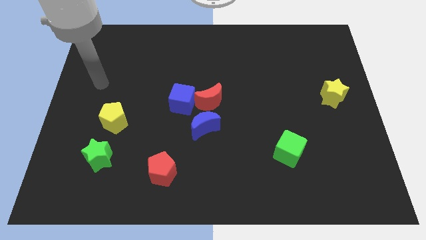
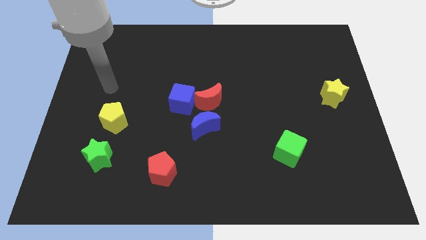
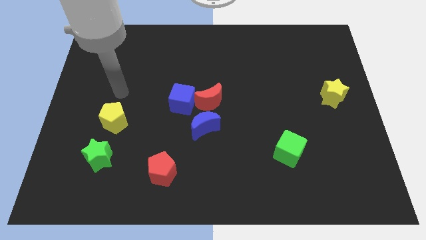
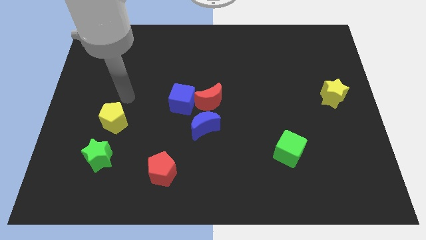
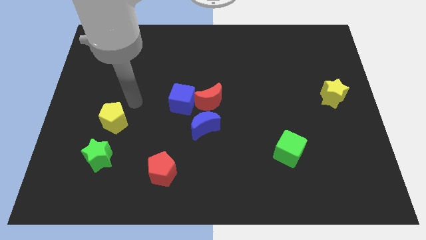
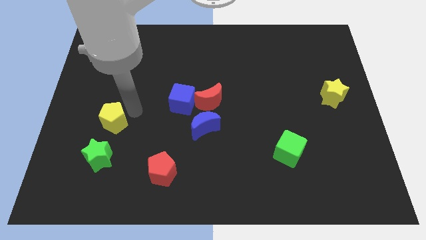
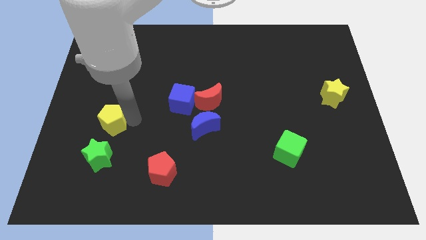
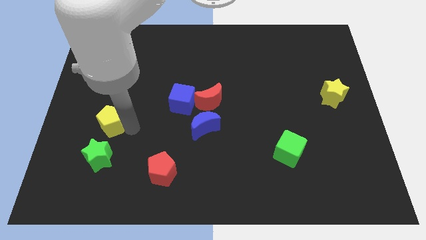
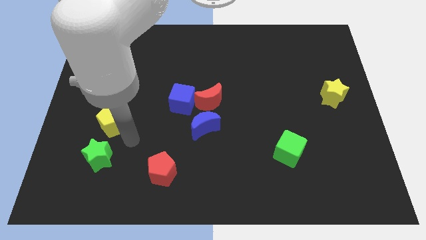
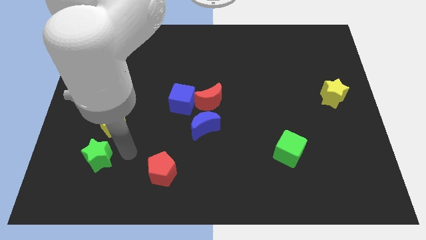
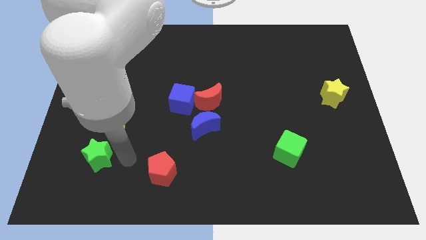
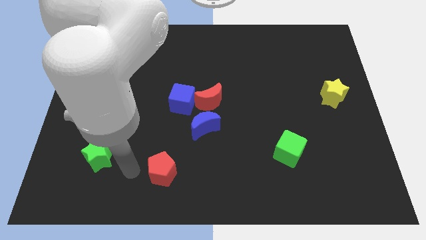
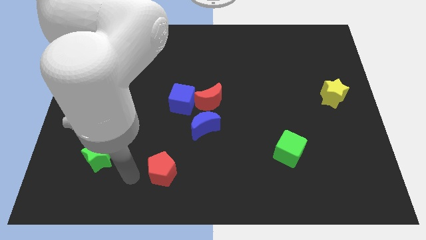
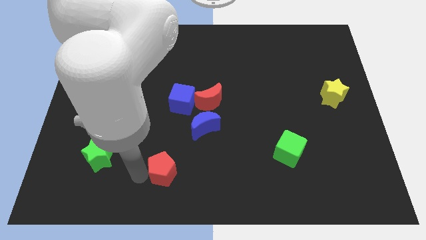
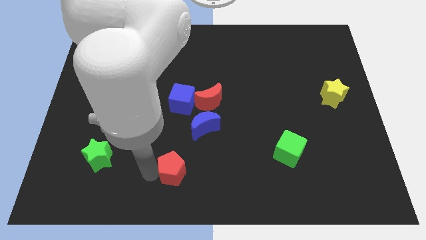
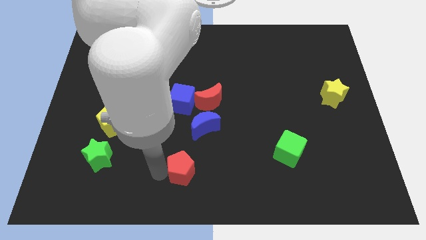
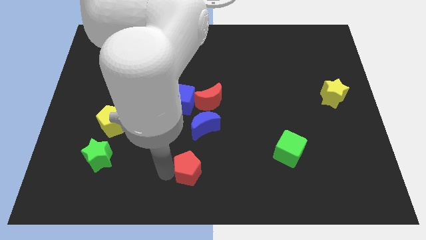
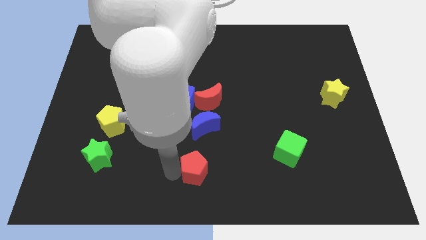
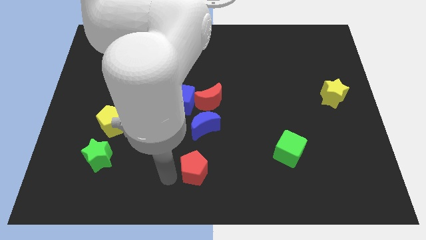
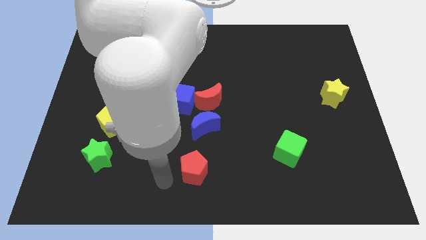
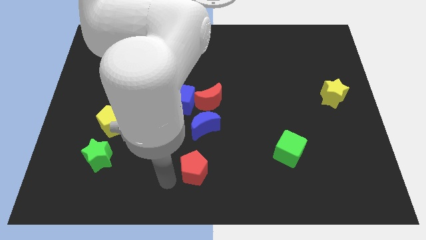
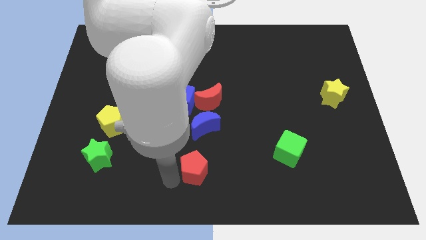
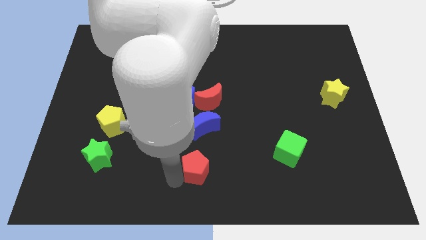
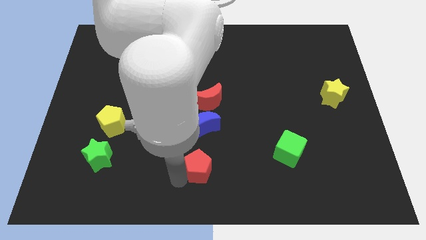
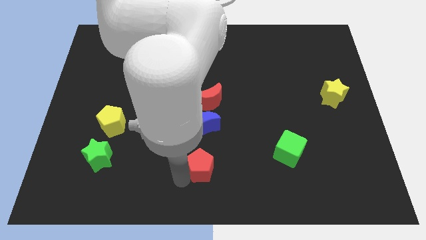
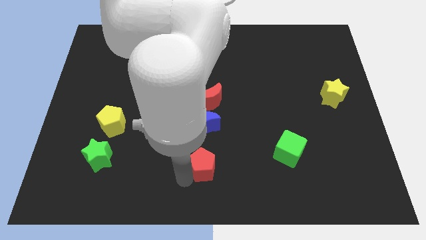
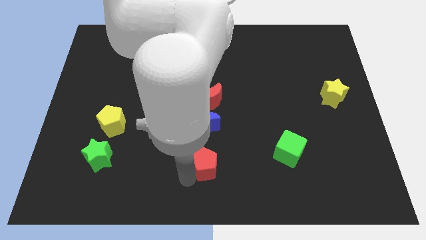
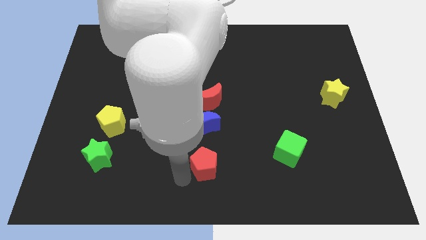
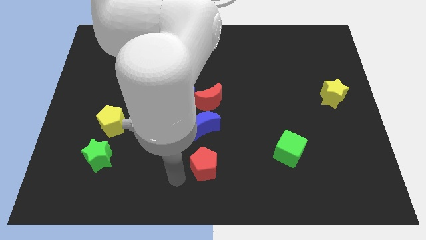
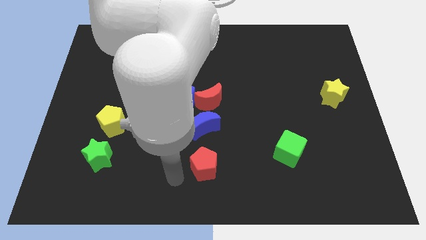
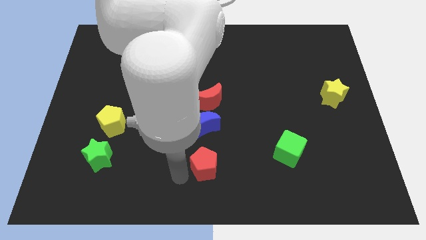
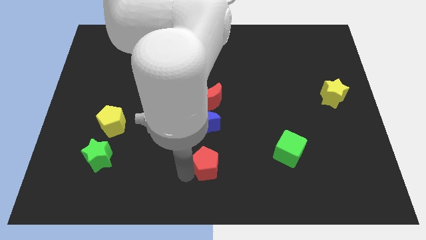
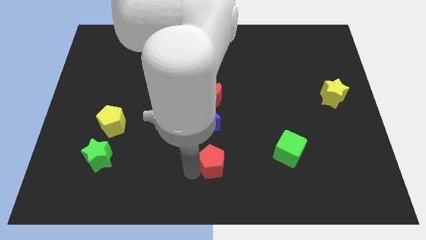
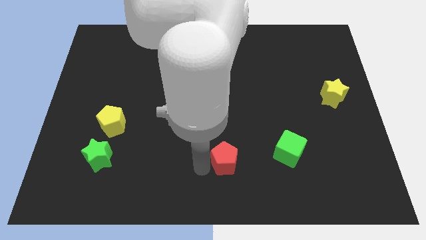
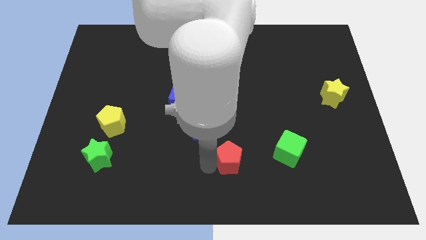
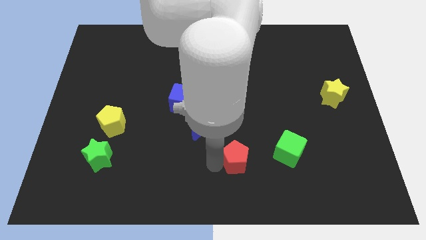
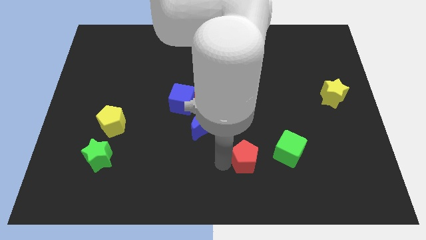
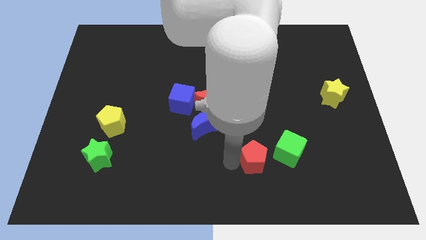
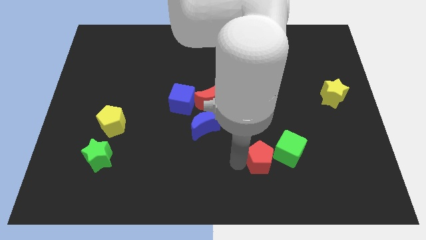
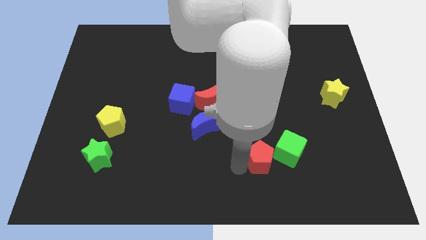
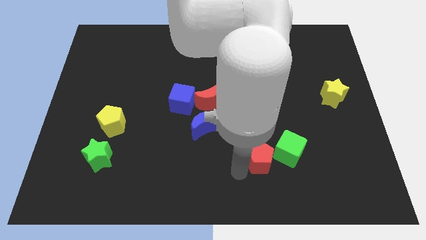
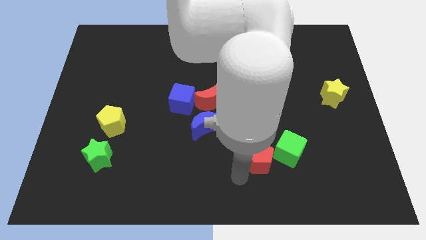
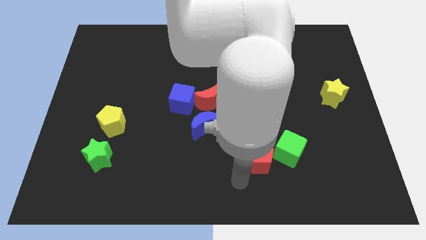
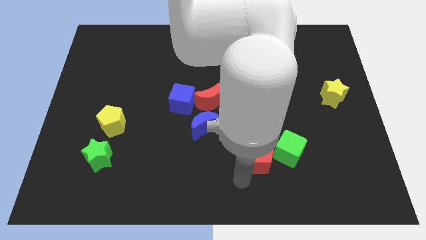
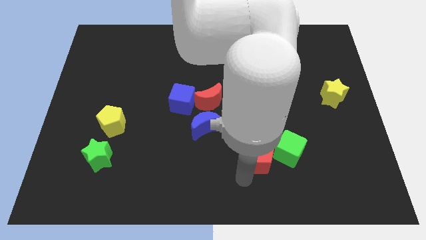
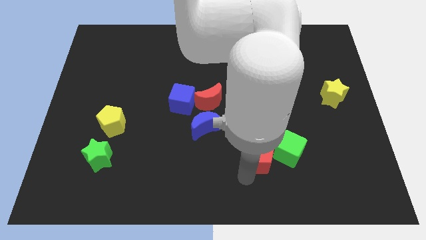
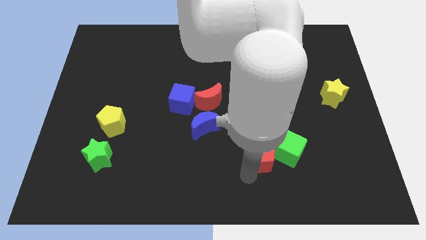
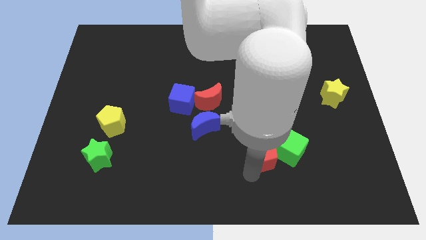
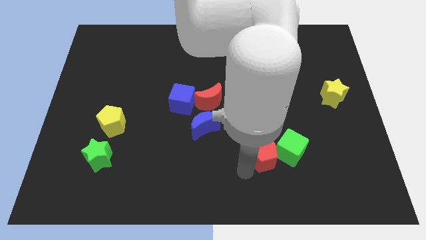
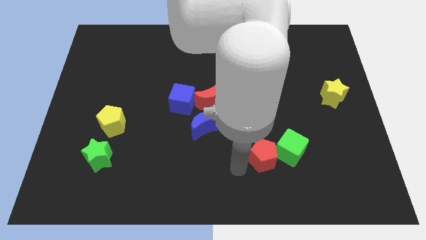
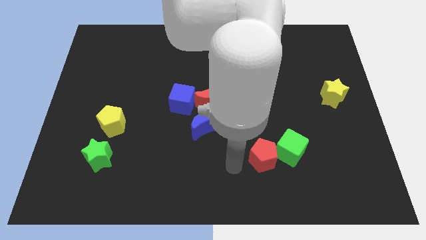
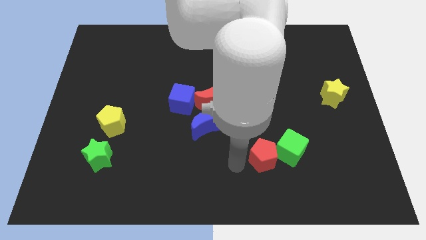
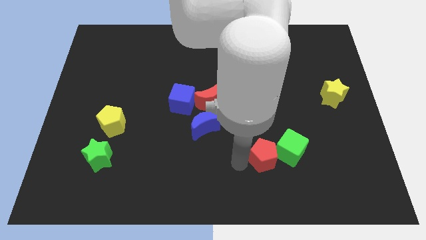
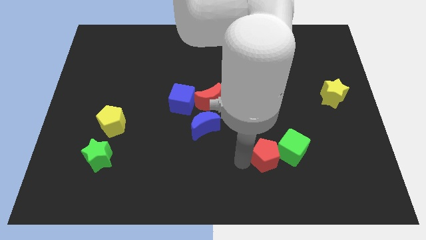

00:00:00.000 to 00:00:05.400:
slide the red pentagon towards the green cube

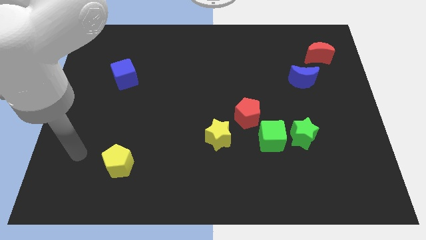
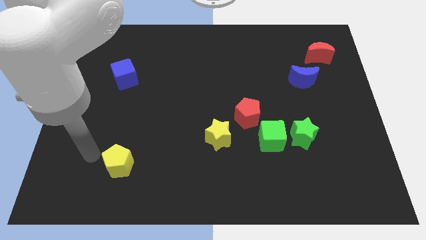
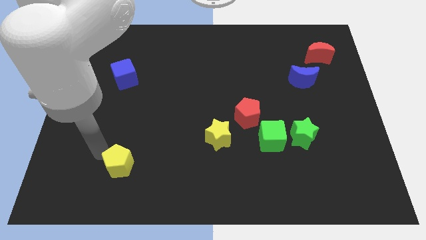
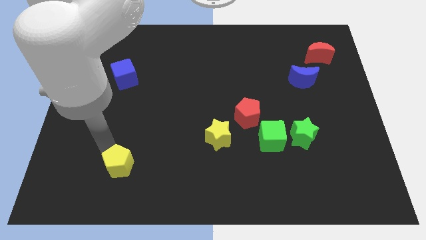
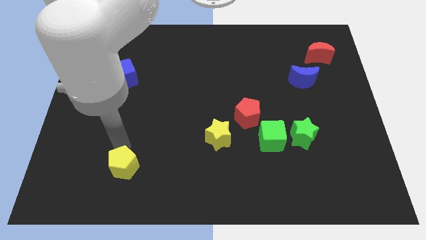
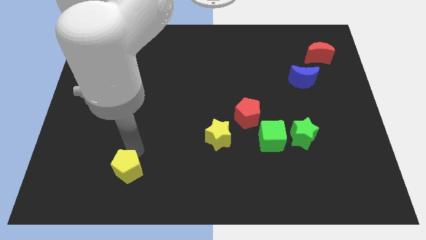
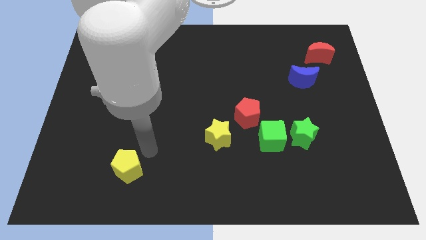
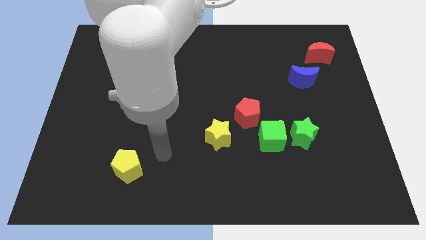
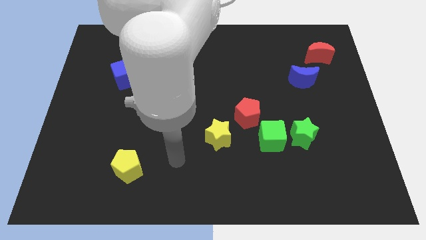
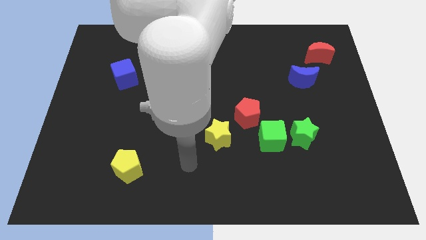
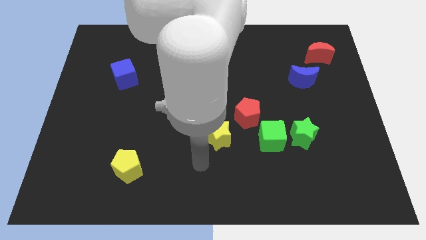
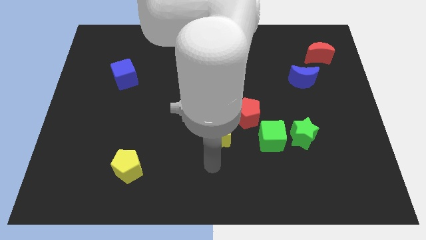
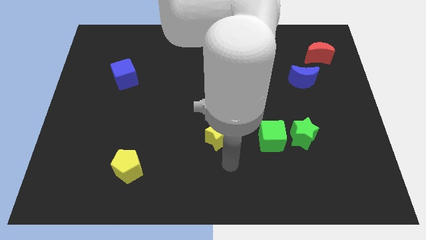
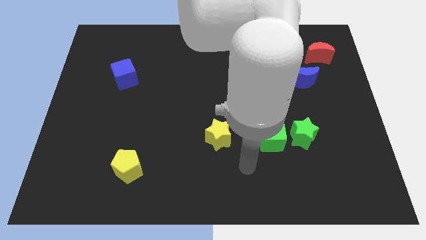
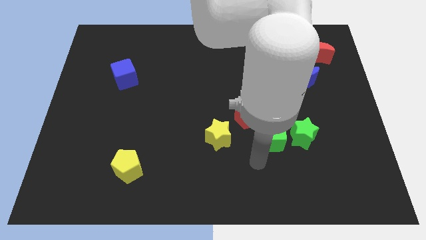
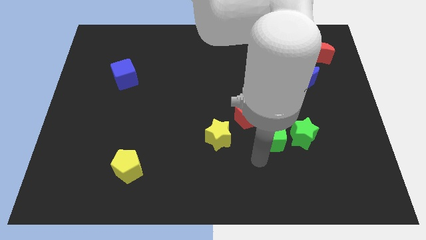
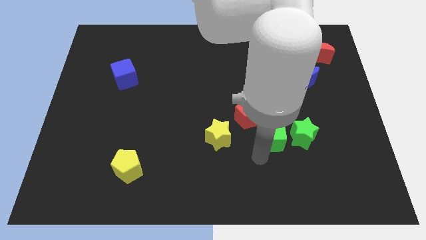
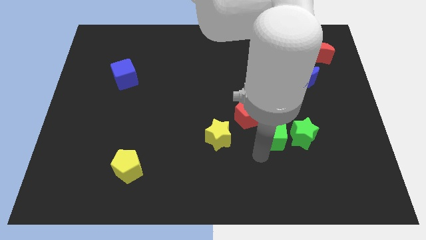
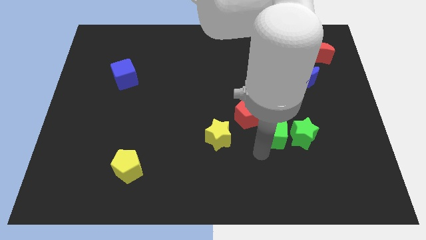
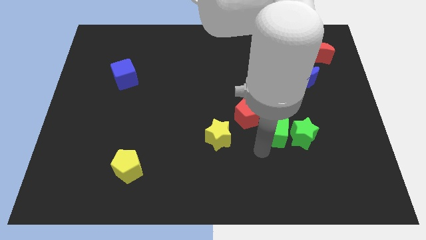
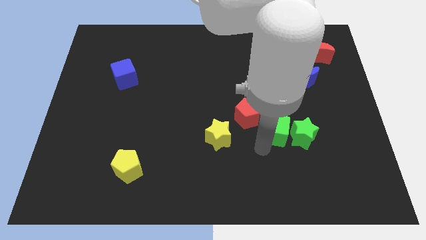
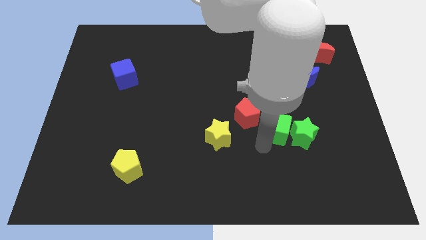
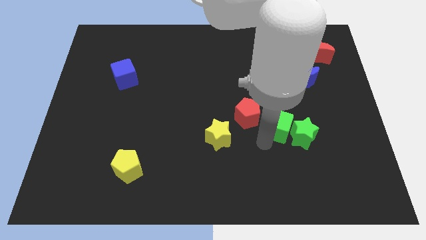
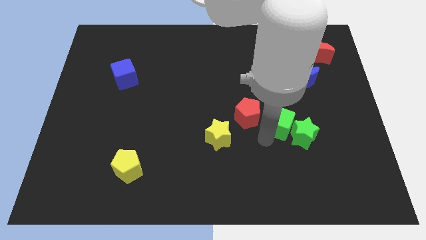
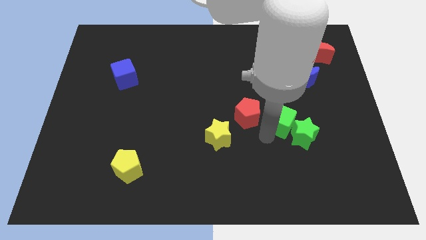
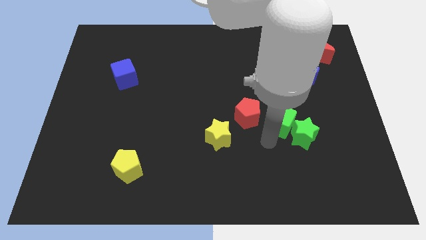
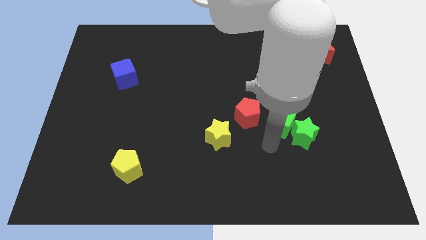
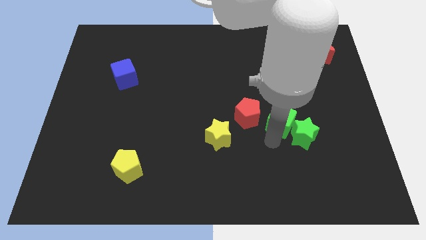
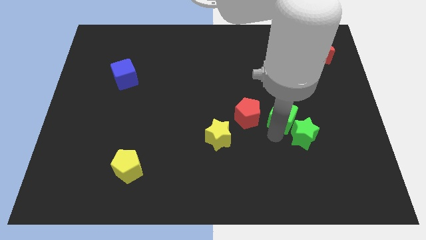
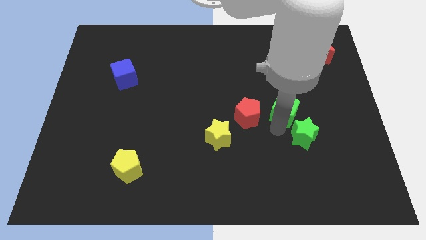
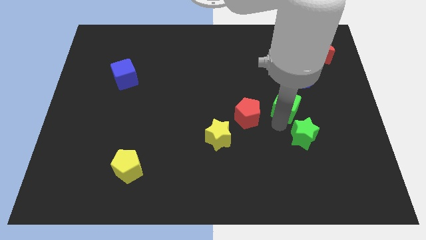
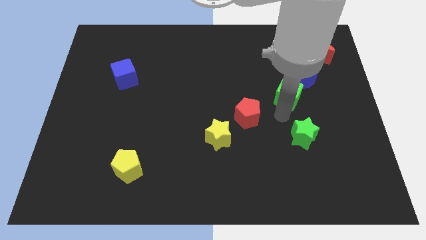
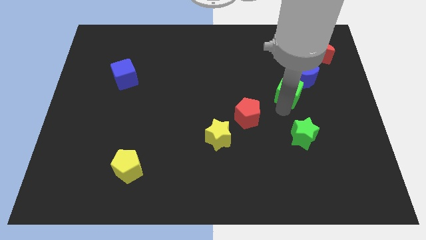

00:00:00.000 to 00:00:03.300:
move the green cube next to the blue moon
